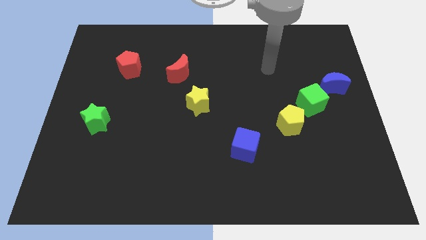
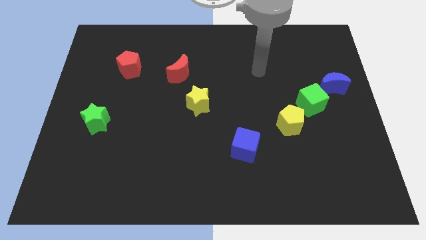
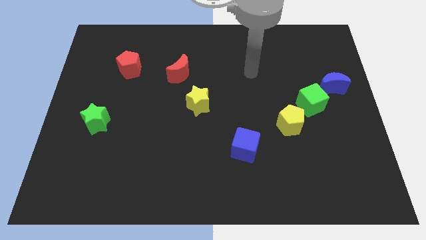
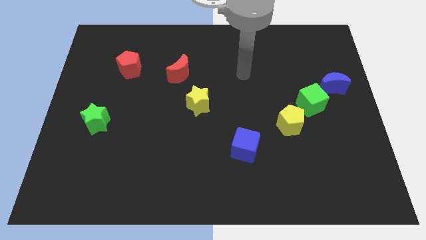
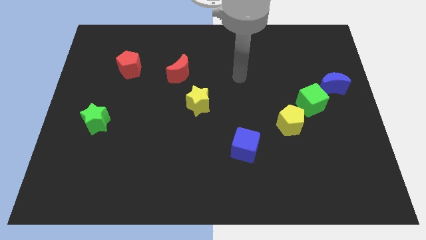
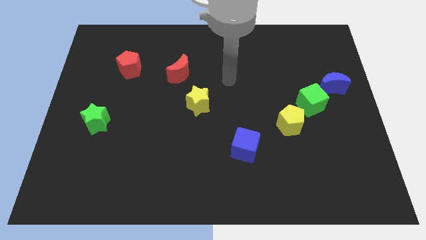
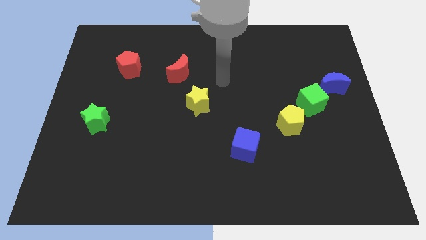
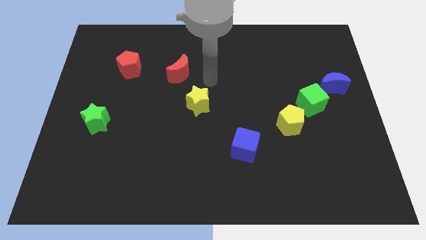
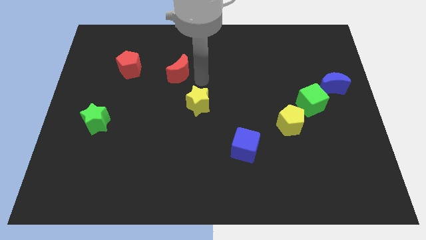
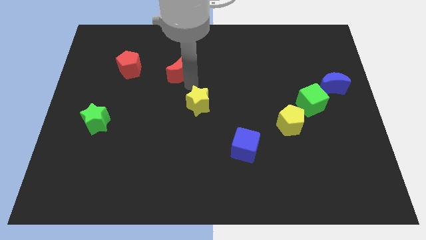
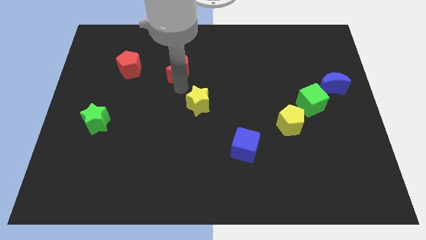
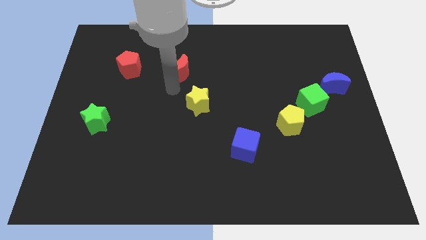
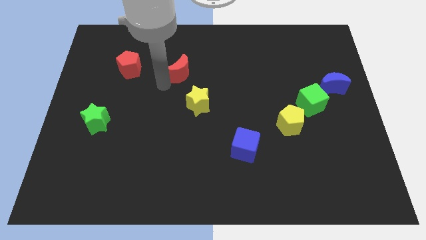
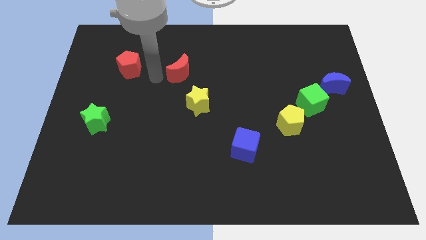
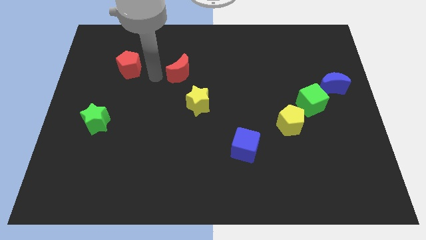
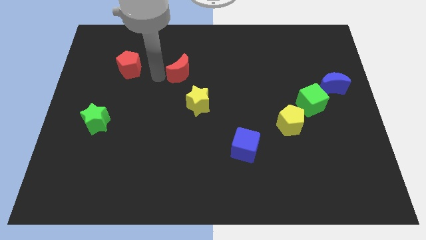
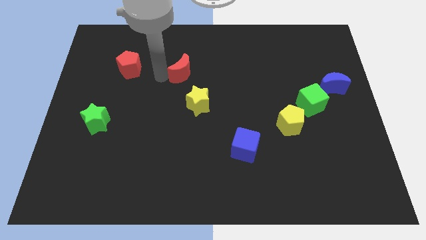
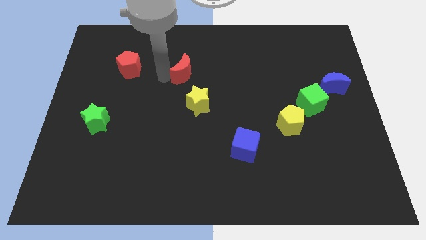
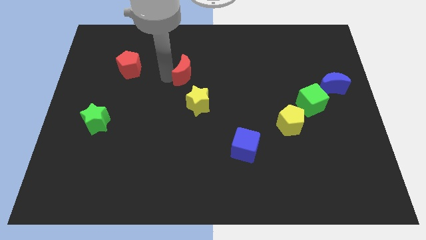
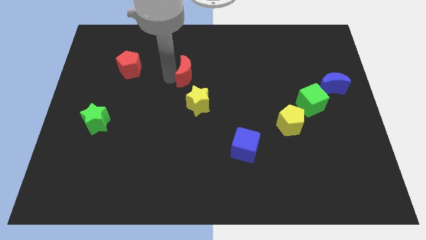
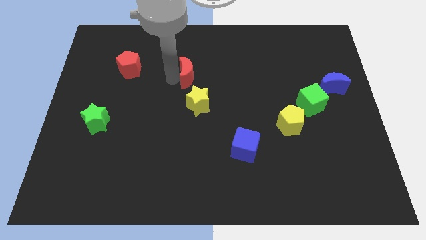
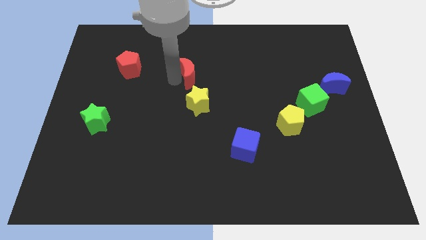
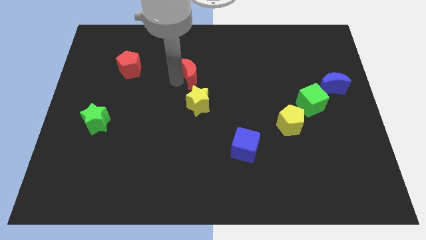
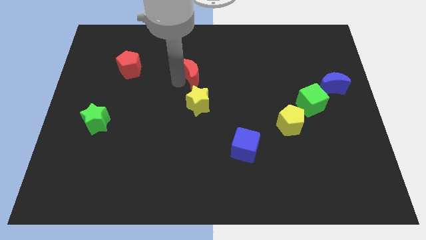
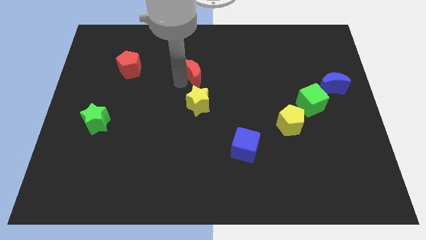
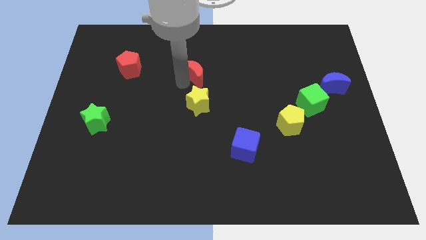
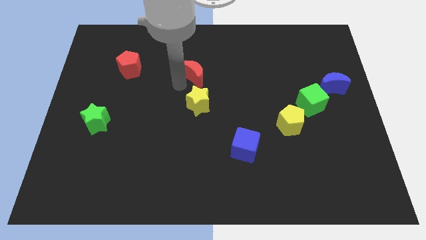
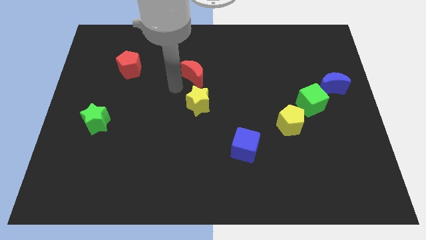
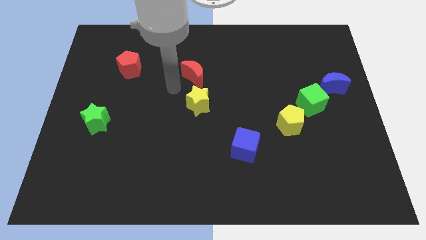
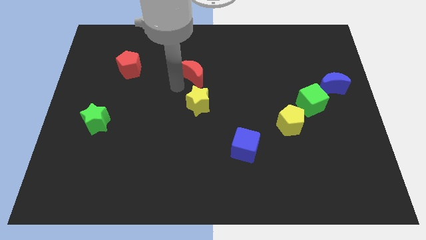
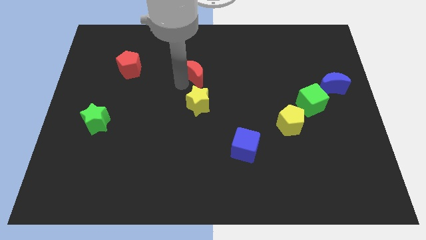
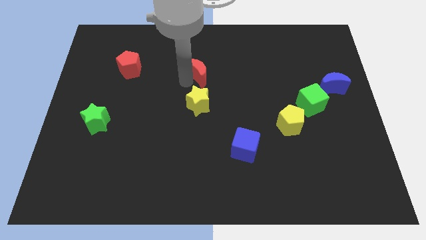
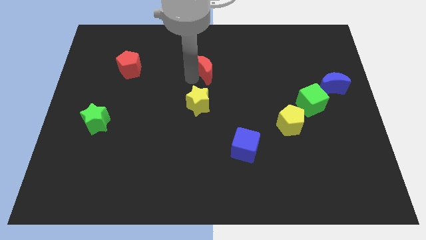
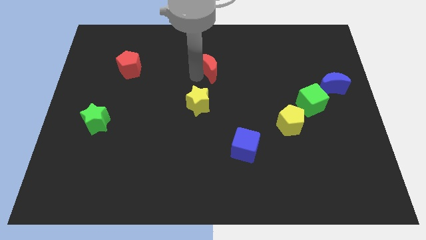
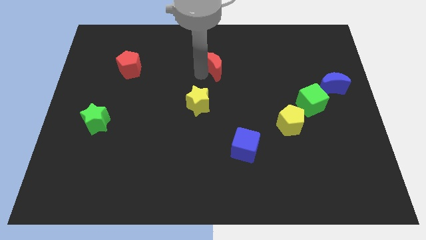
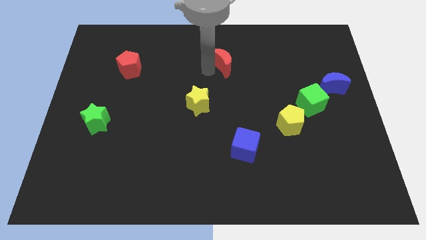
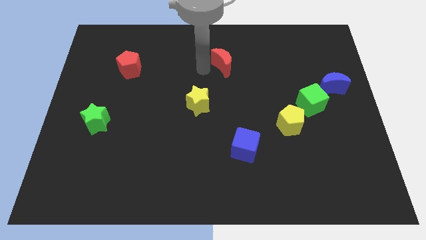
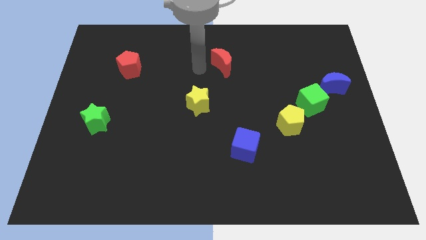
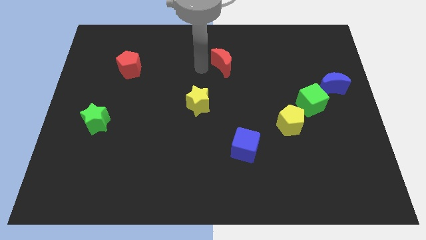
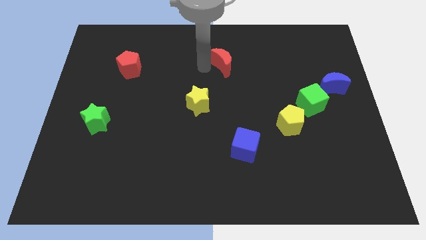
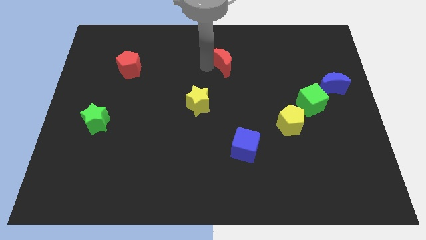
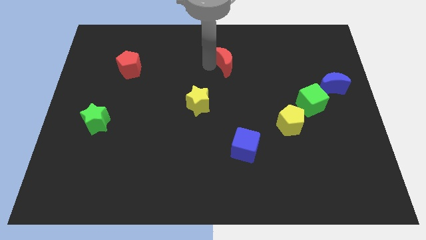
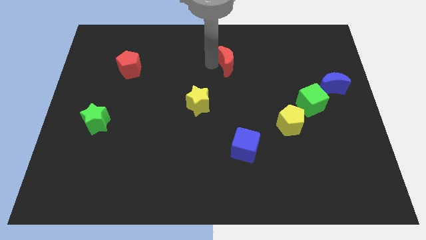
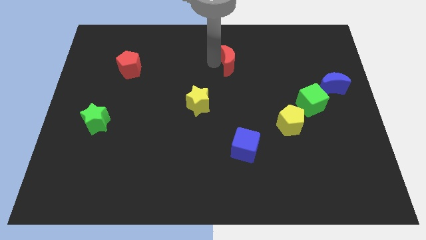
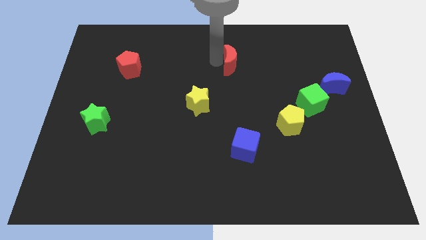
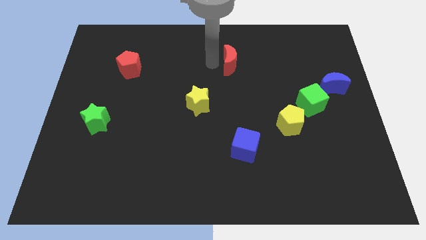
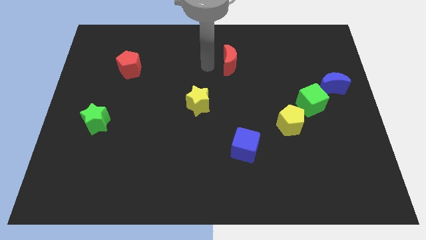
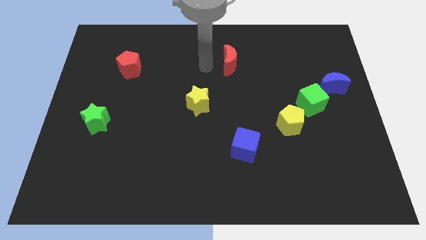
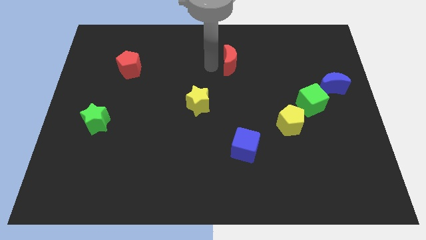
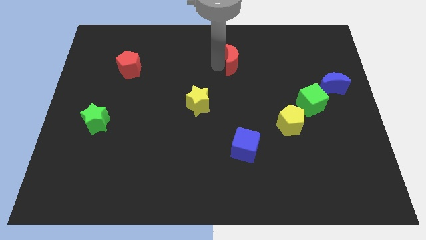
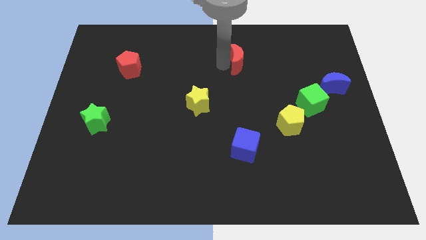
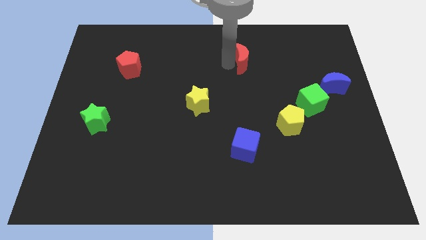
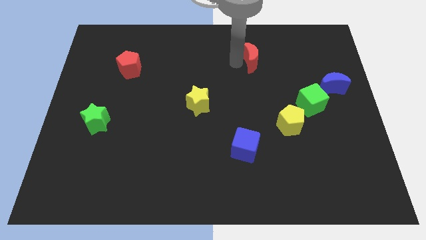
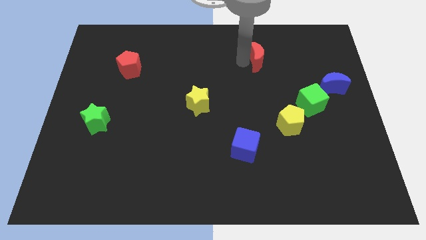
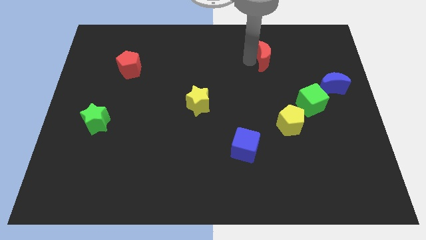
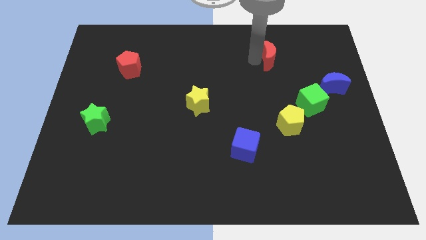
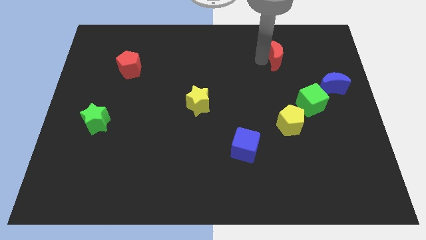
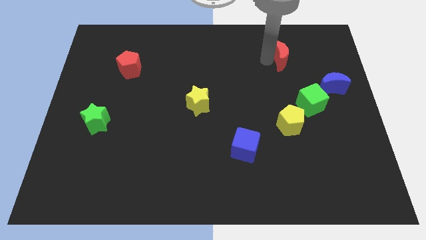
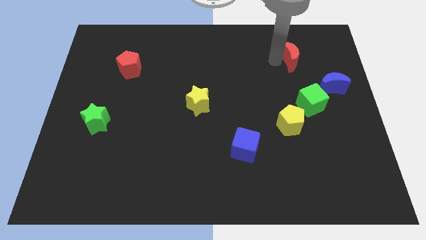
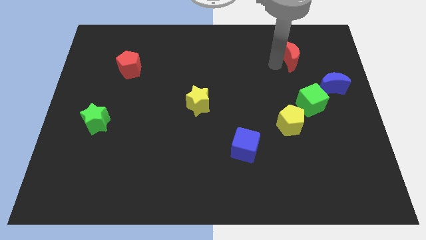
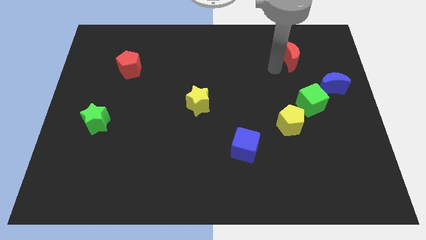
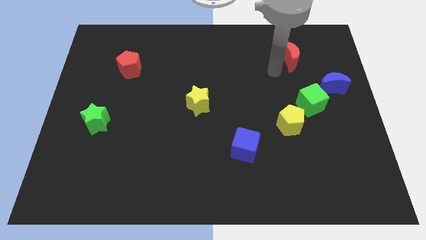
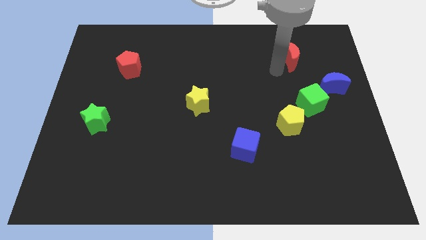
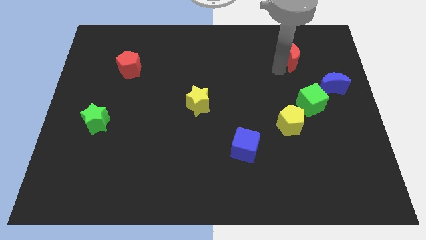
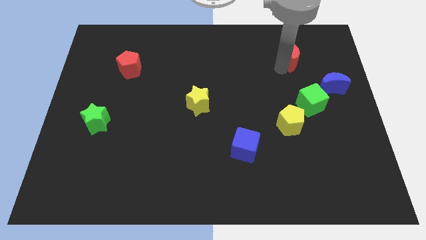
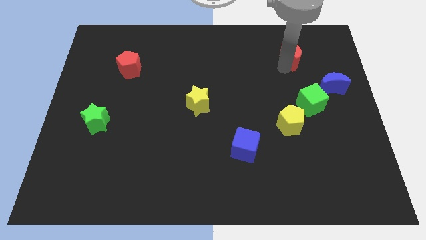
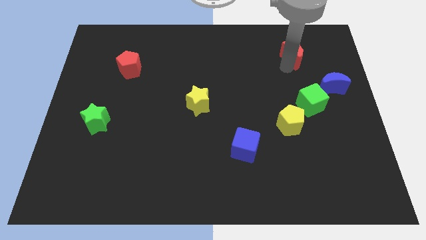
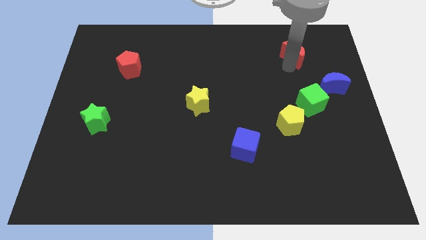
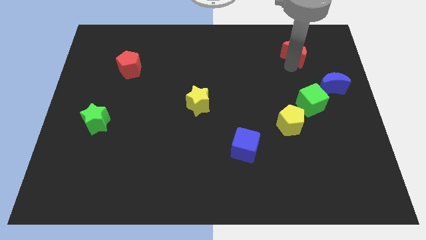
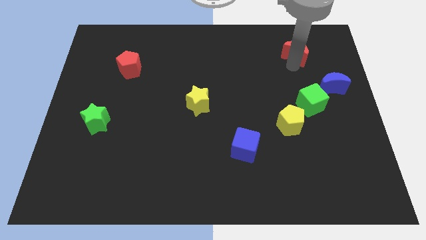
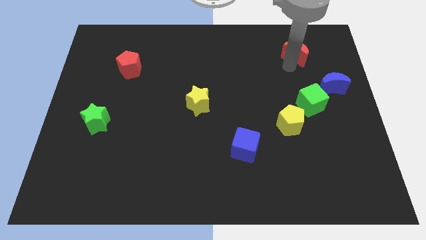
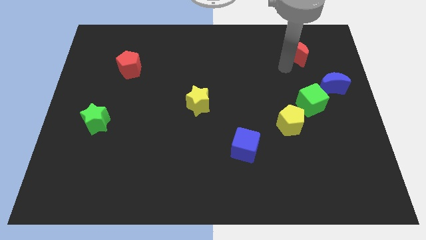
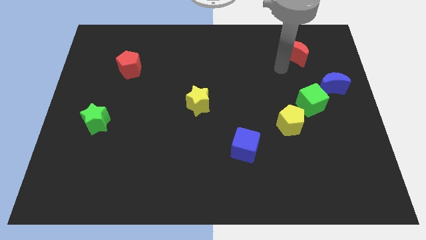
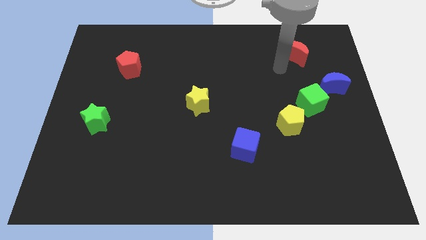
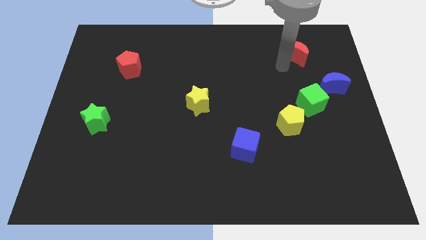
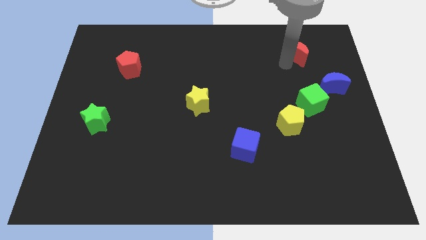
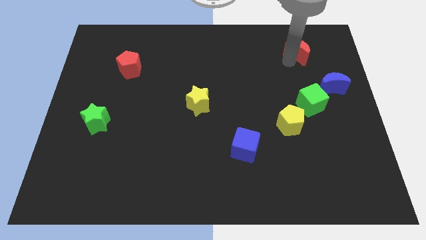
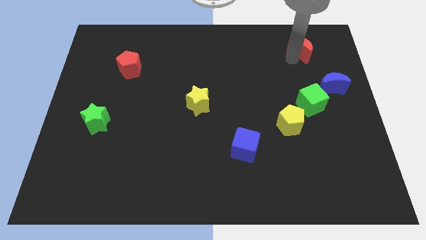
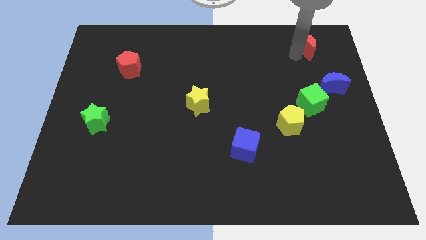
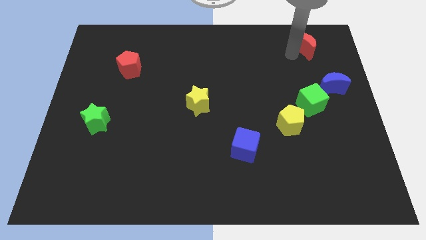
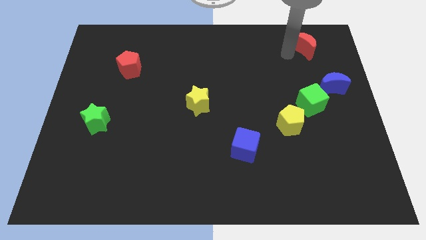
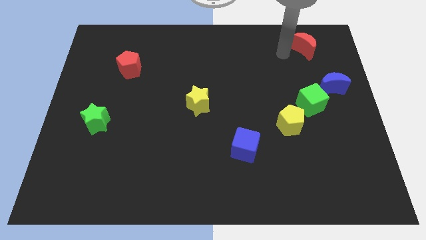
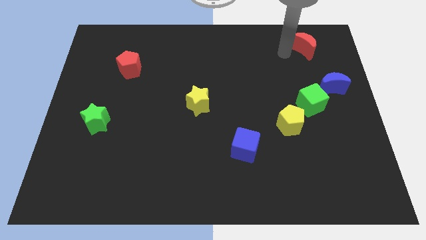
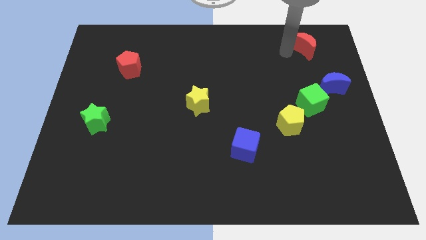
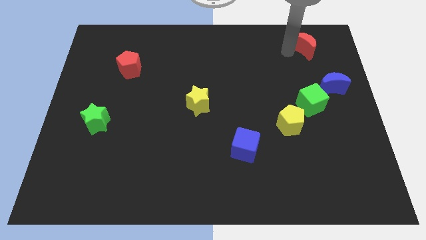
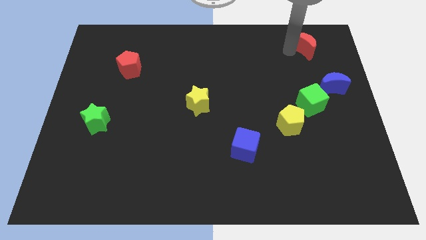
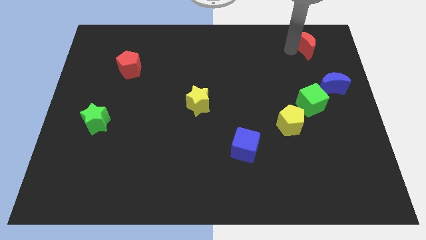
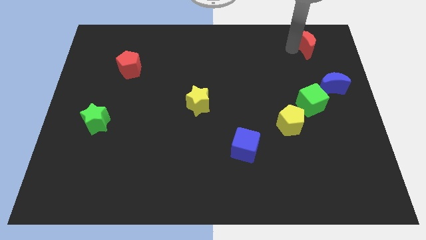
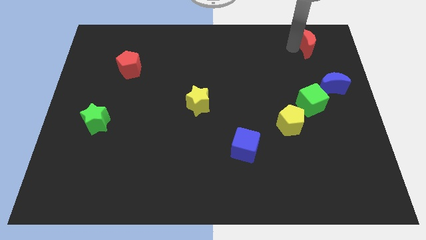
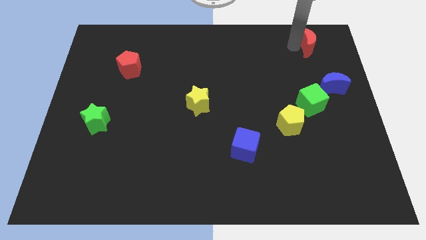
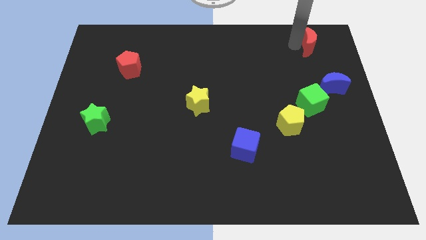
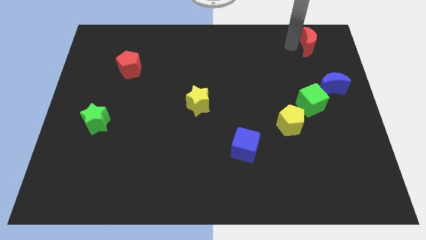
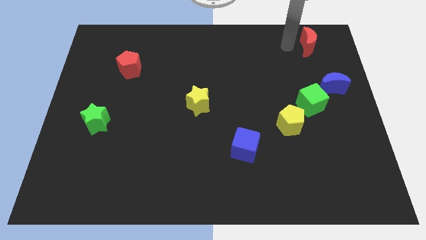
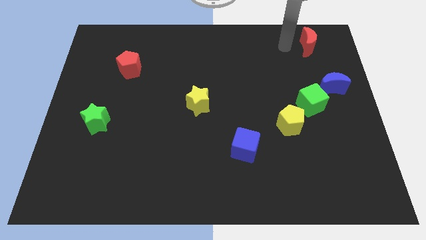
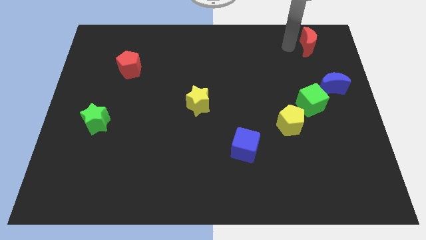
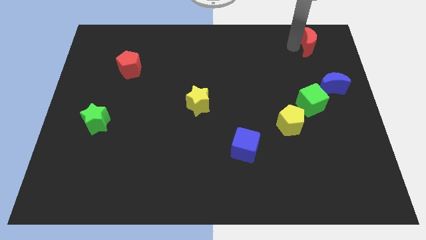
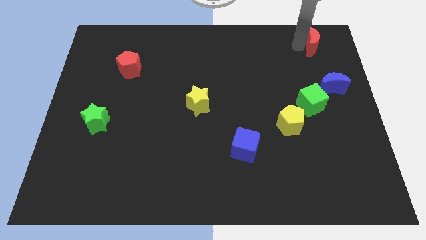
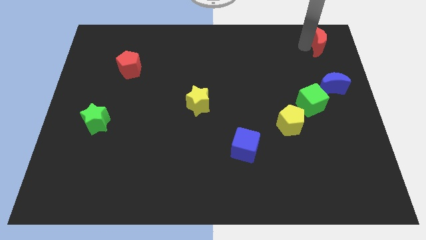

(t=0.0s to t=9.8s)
put the red moon to the upper right corner
